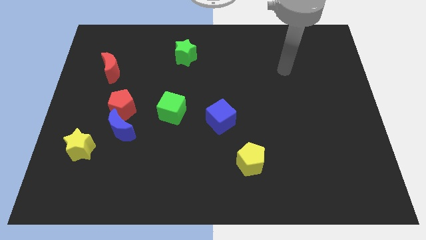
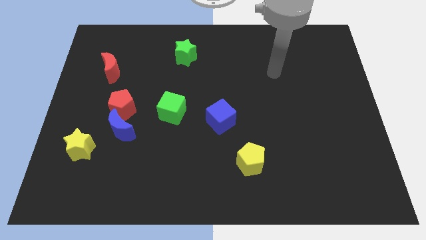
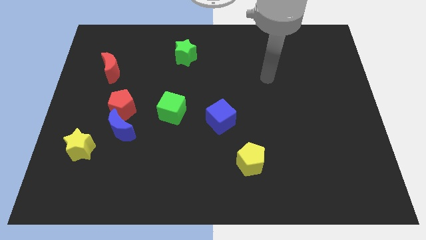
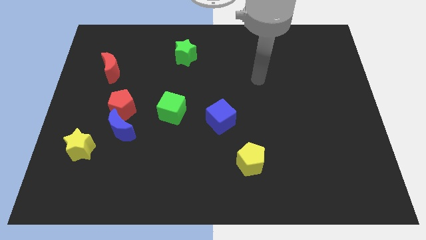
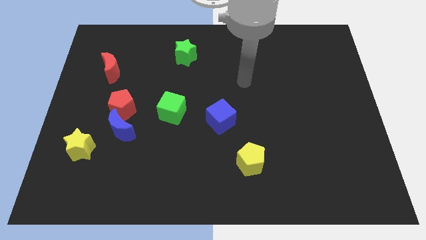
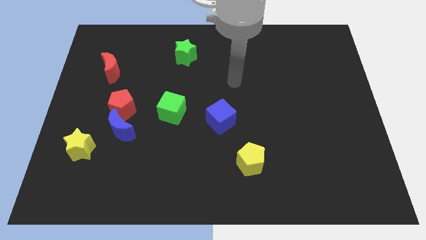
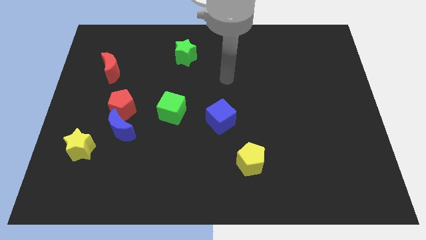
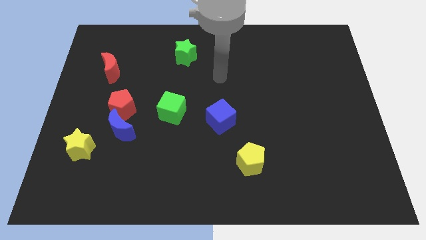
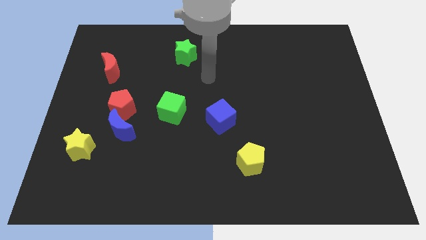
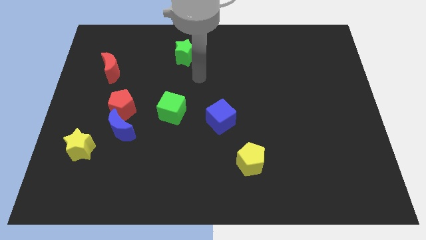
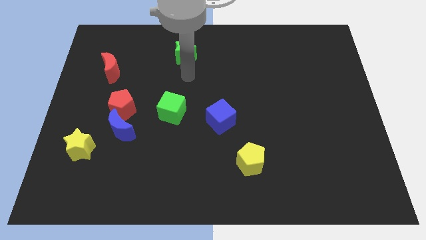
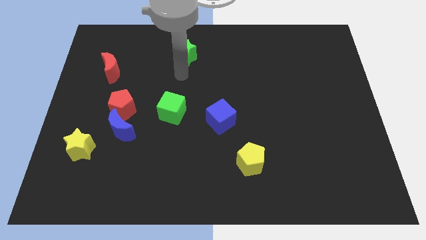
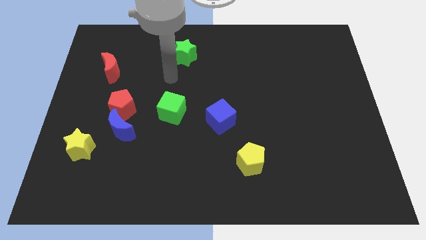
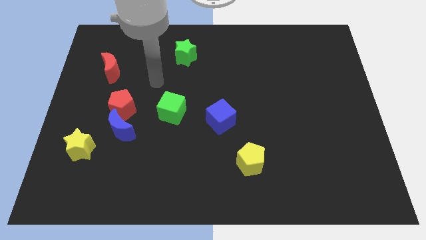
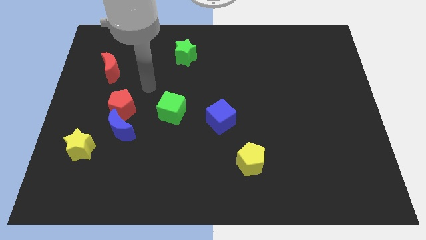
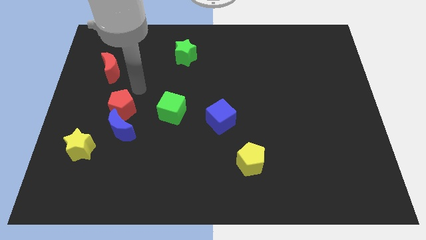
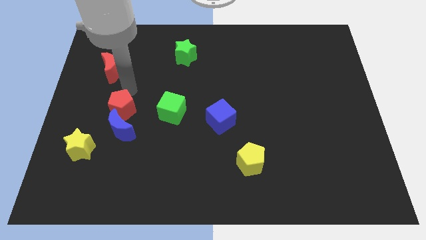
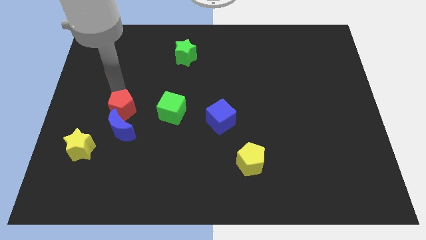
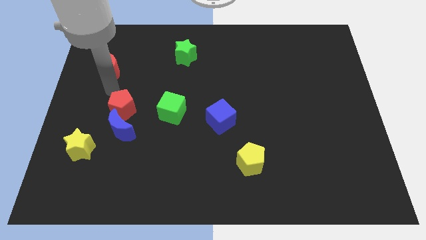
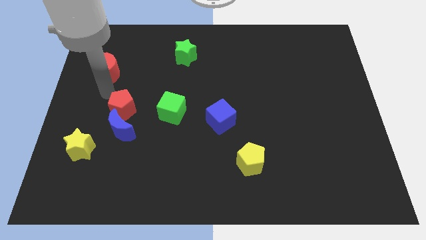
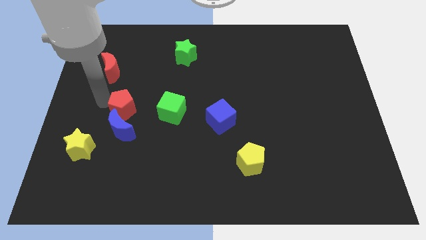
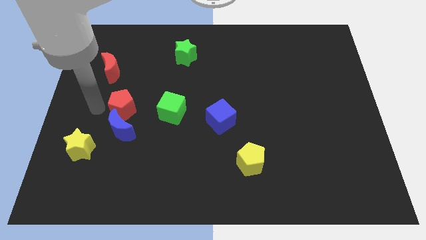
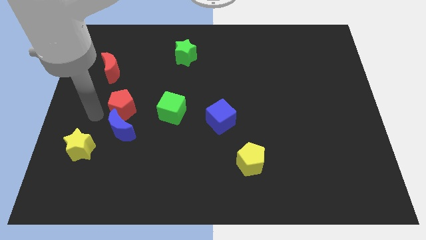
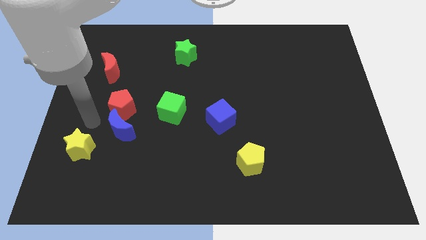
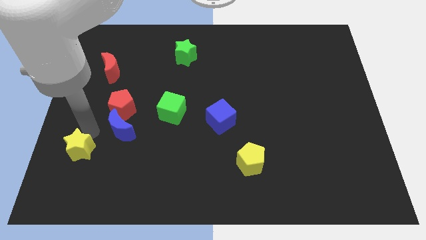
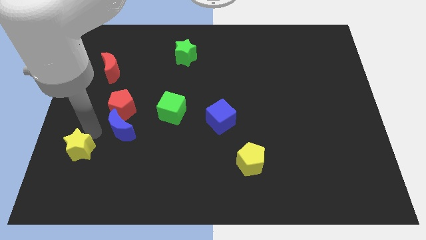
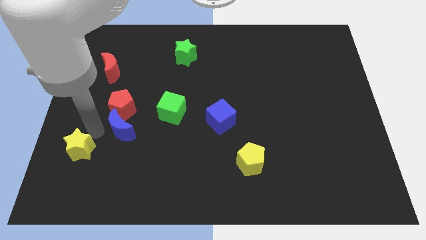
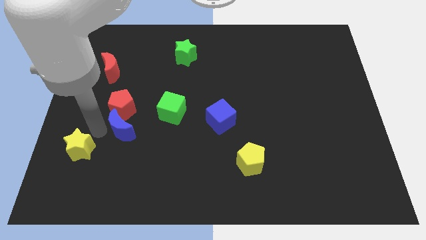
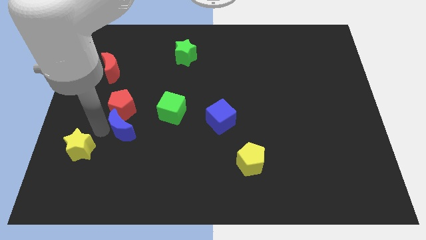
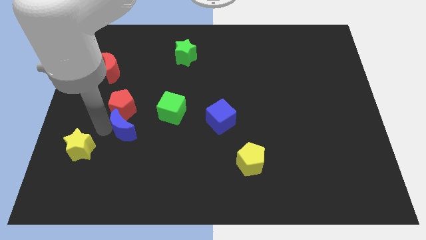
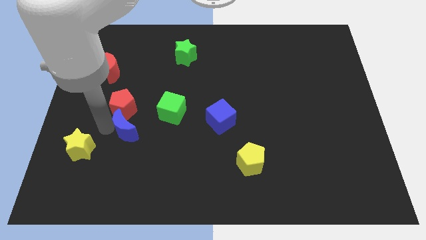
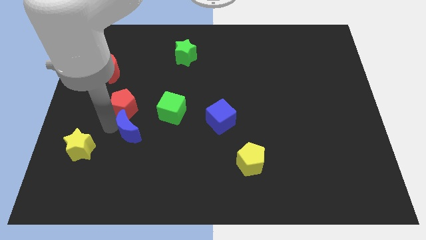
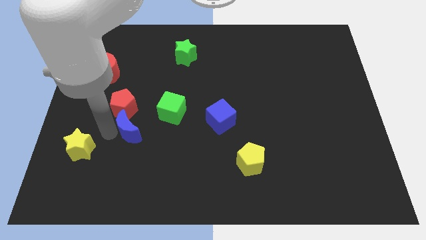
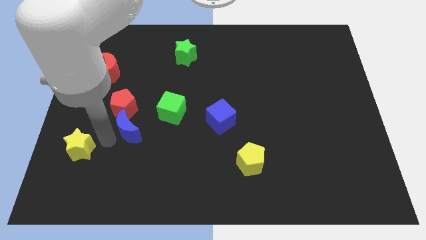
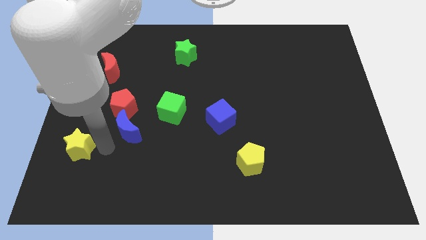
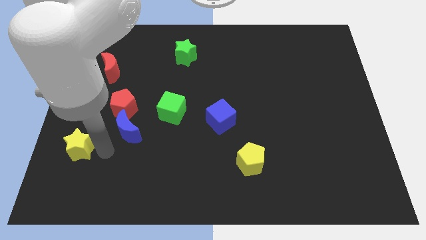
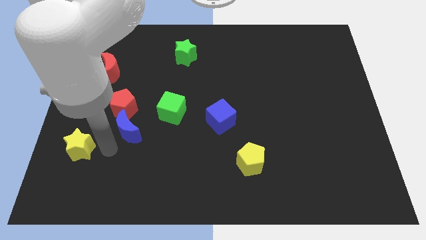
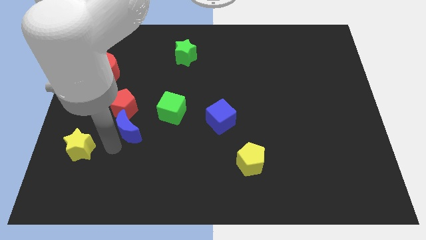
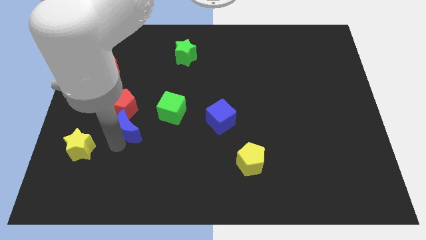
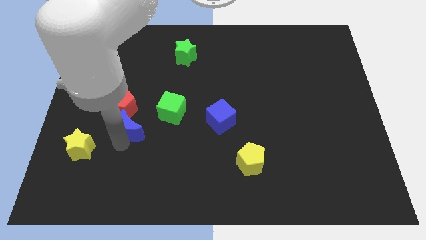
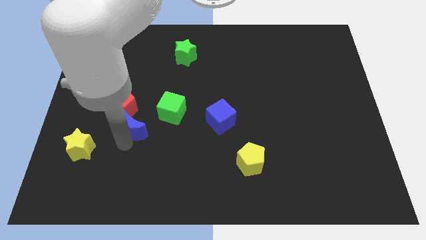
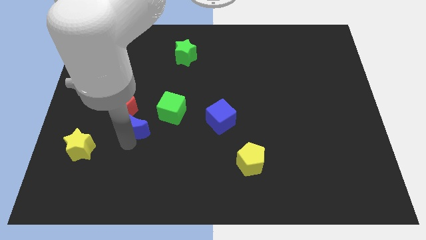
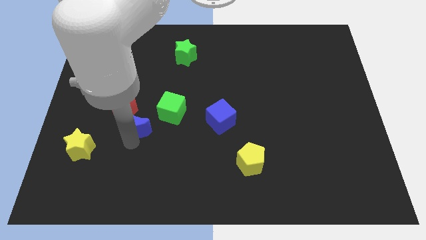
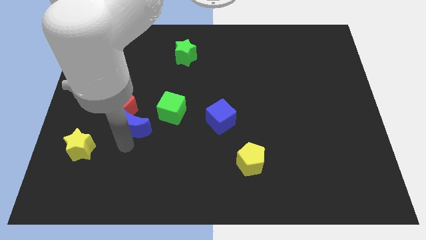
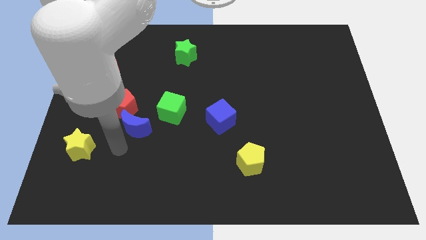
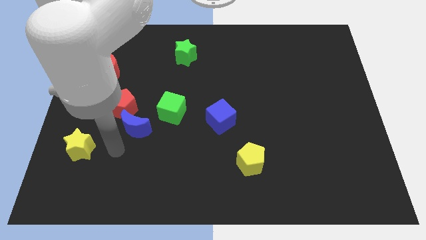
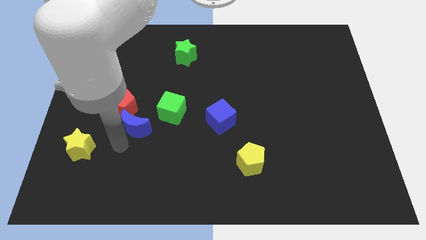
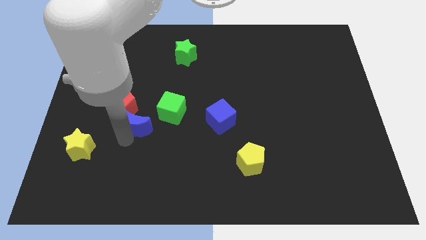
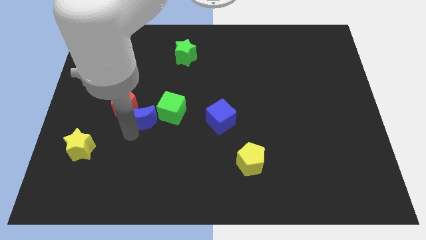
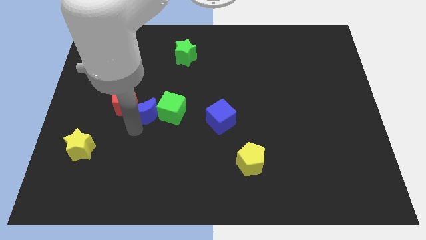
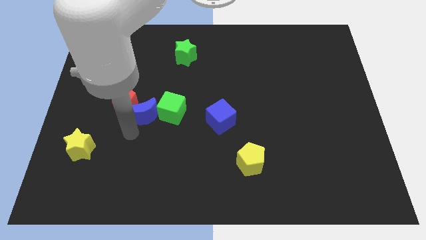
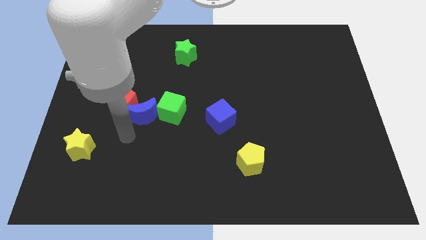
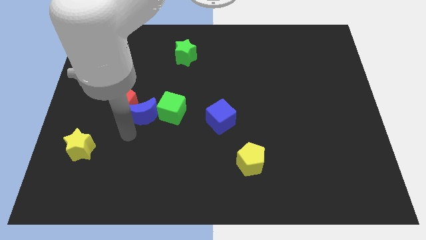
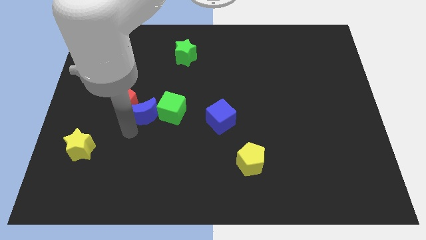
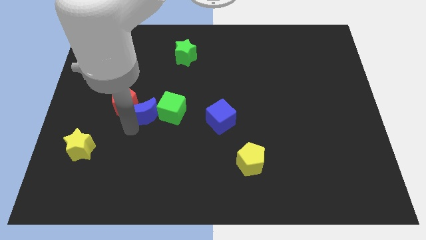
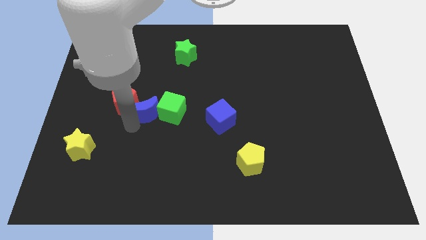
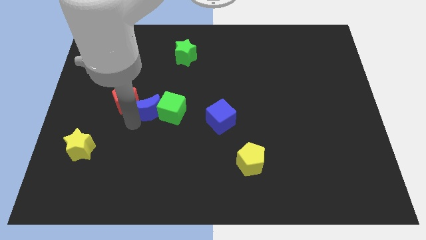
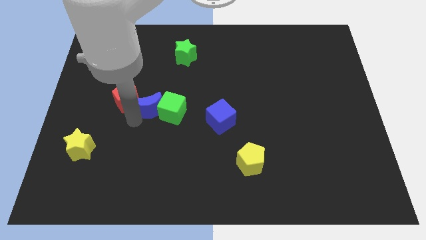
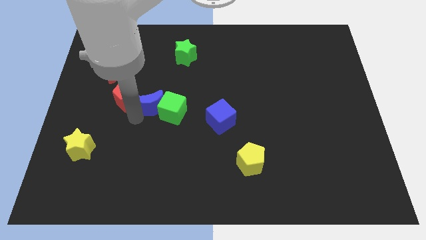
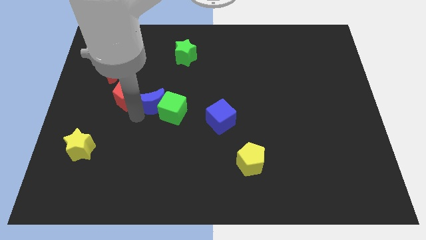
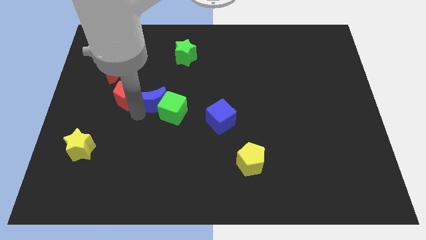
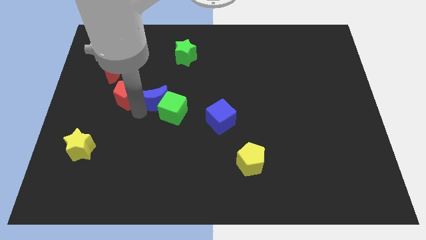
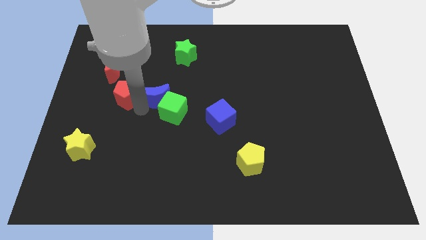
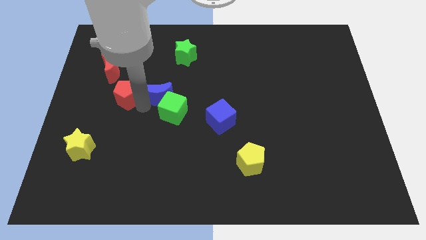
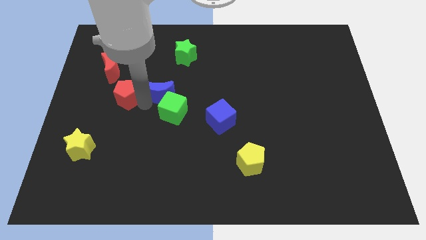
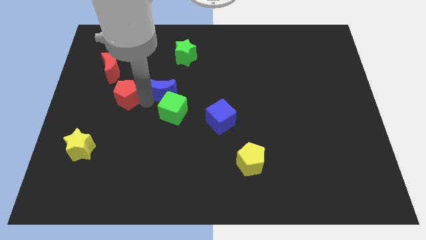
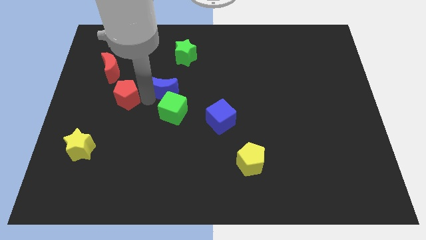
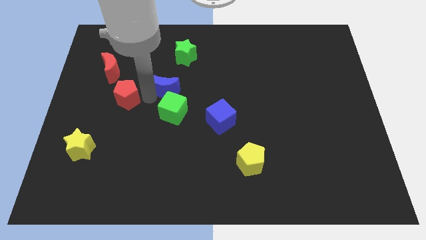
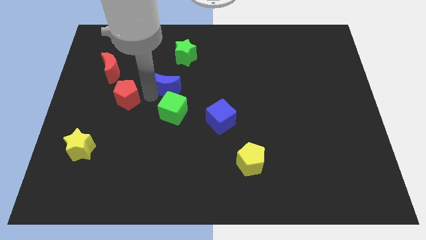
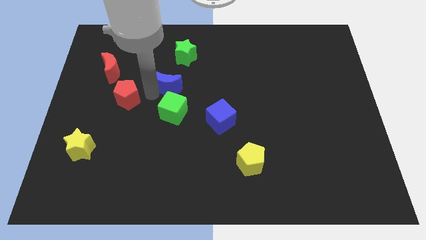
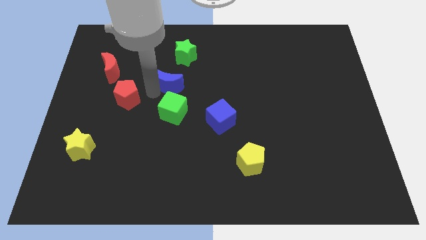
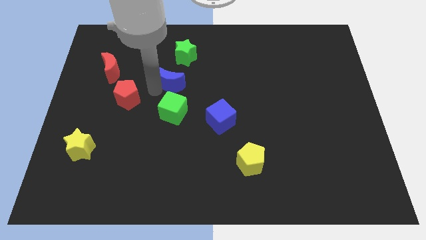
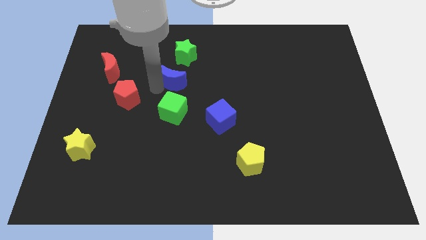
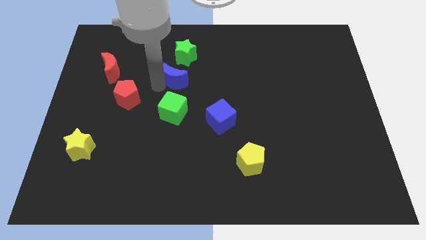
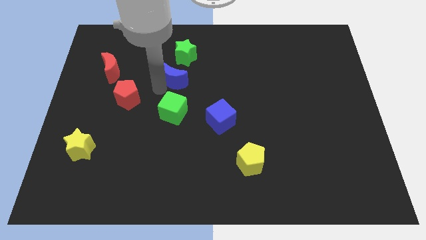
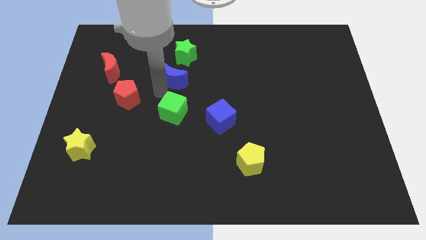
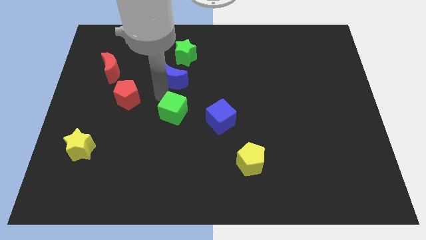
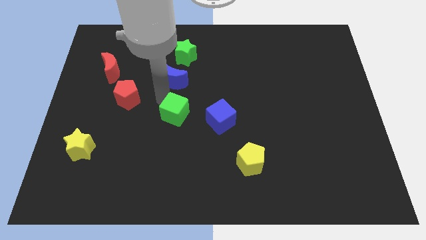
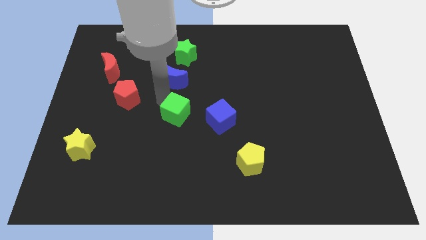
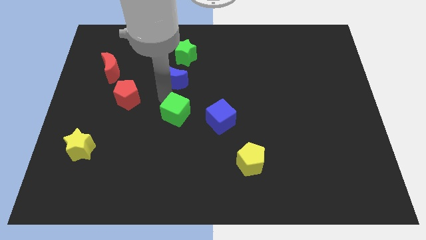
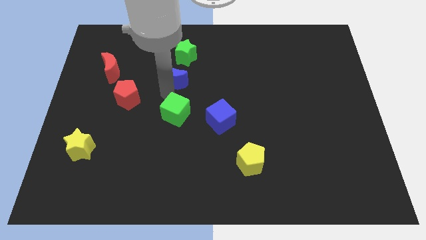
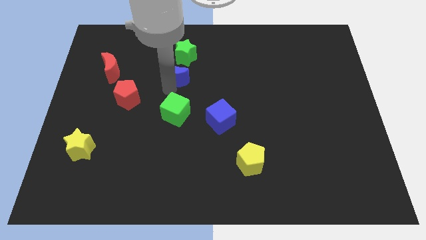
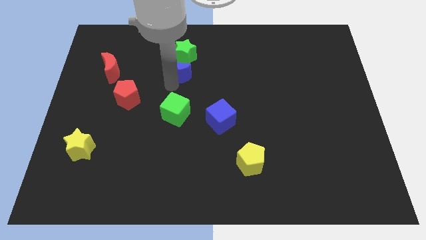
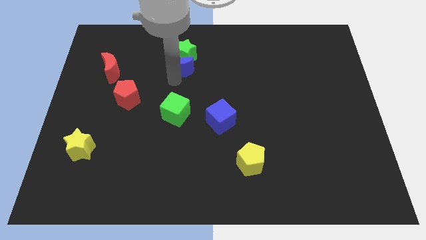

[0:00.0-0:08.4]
put the blue moon to the green star
